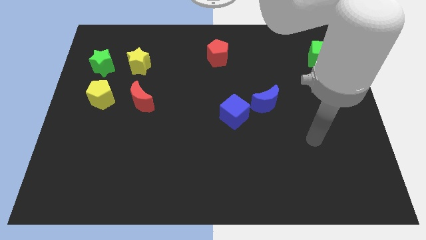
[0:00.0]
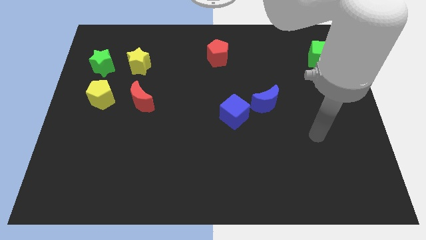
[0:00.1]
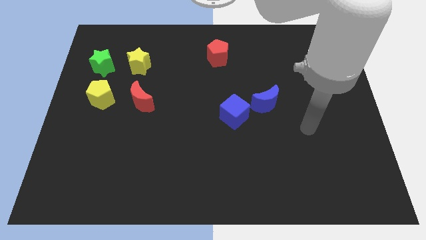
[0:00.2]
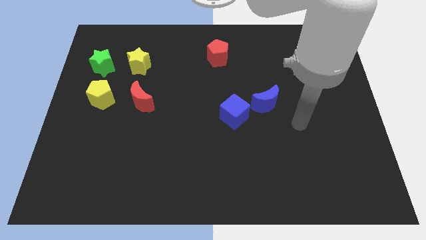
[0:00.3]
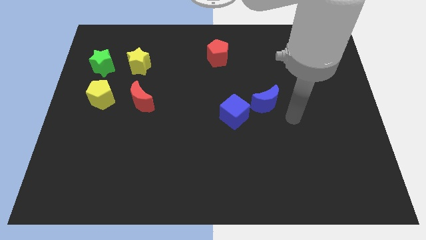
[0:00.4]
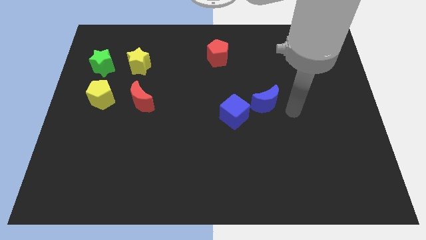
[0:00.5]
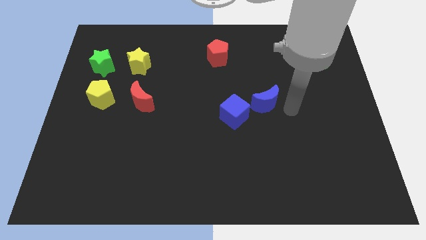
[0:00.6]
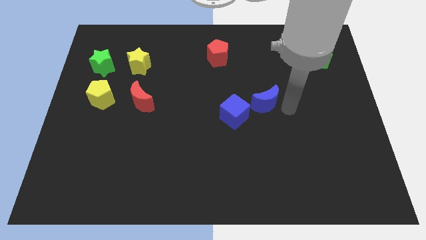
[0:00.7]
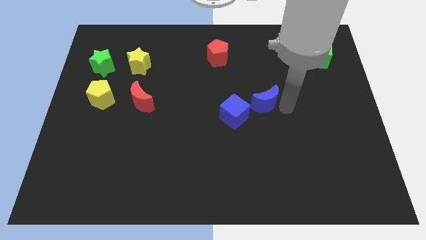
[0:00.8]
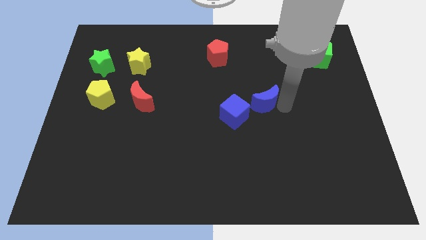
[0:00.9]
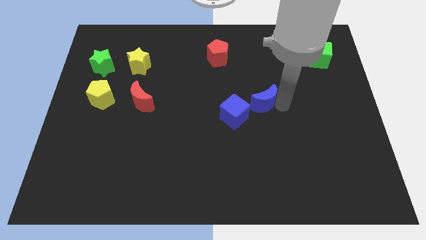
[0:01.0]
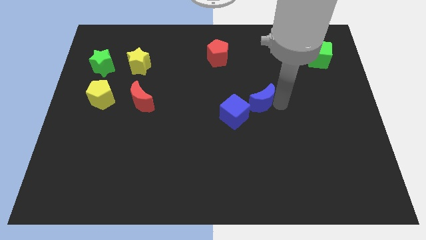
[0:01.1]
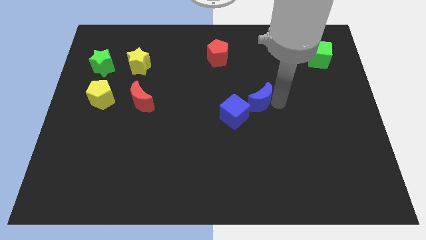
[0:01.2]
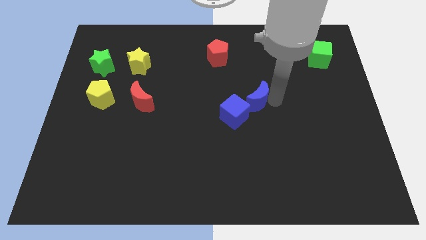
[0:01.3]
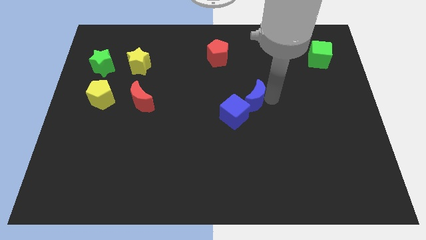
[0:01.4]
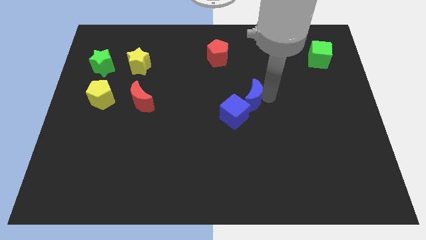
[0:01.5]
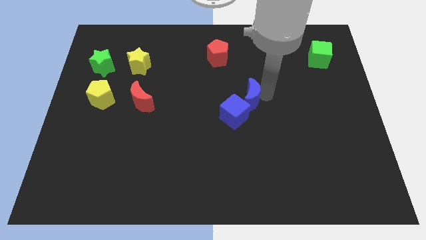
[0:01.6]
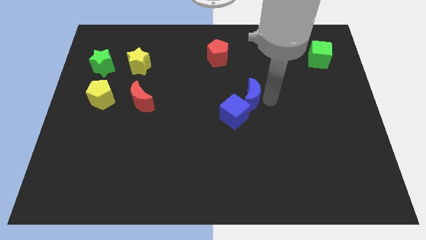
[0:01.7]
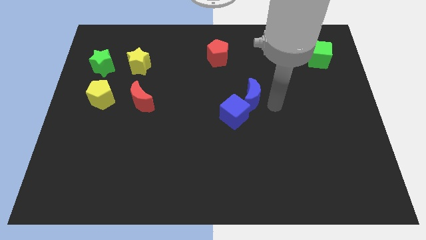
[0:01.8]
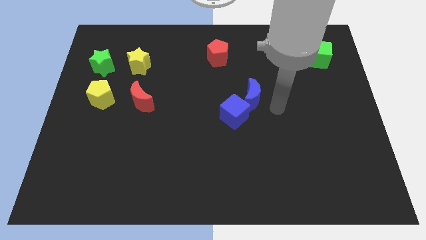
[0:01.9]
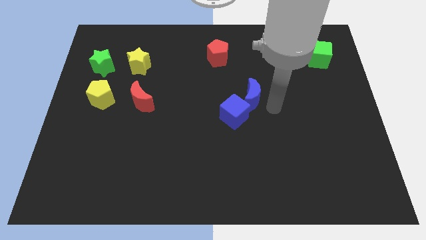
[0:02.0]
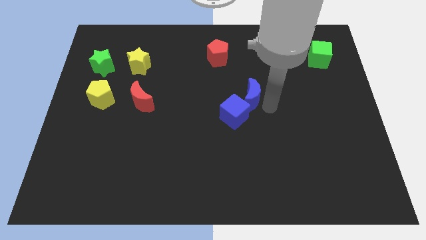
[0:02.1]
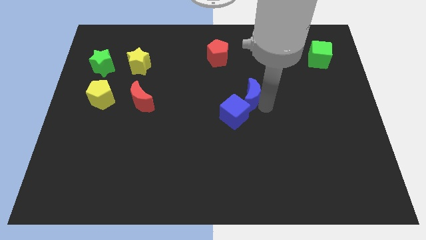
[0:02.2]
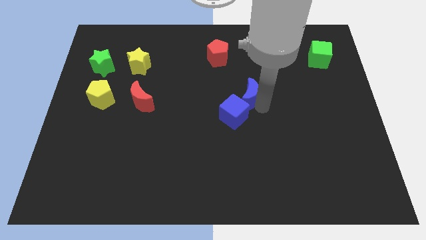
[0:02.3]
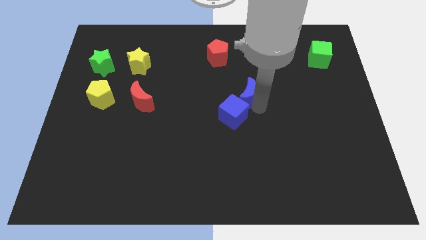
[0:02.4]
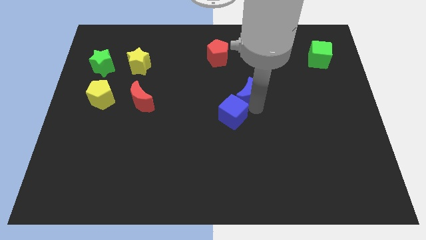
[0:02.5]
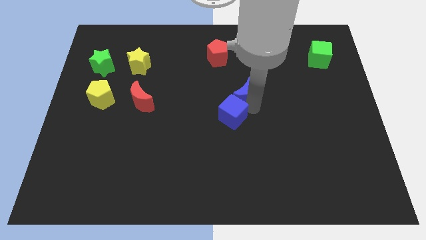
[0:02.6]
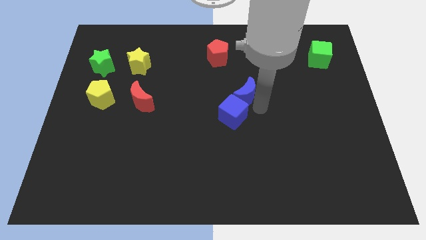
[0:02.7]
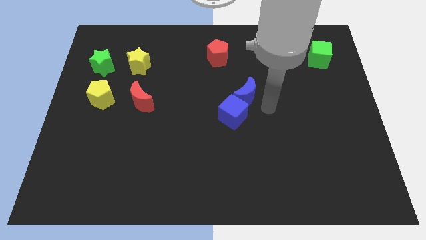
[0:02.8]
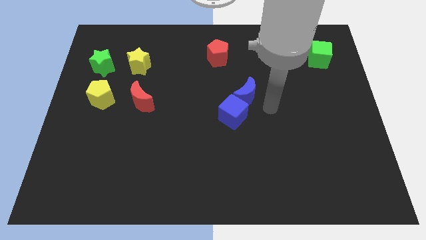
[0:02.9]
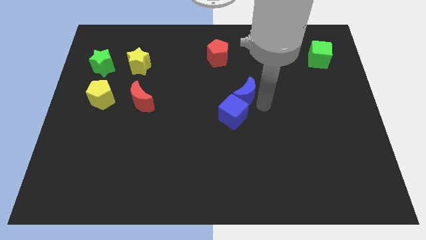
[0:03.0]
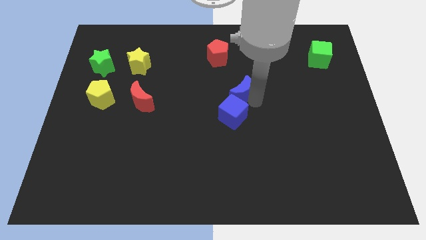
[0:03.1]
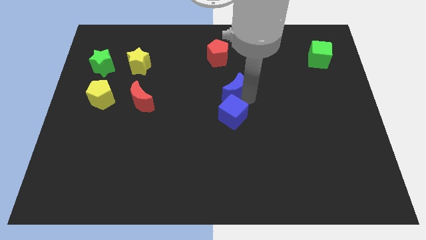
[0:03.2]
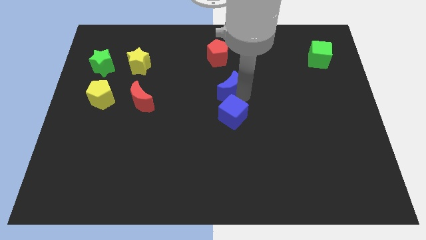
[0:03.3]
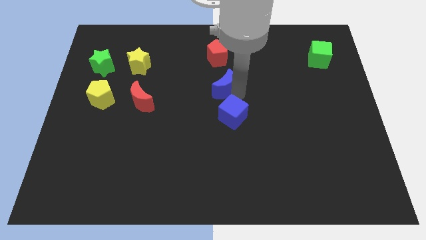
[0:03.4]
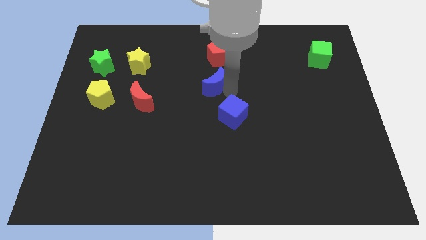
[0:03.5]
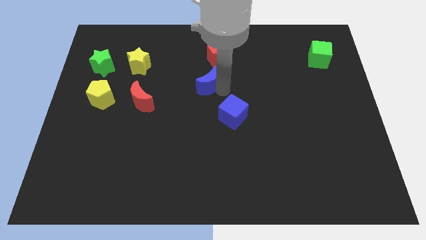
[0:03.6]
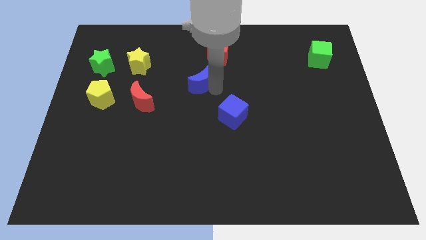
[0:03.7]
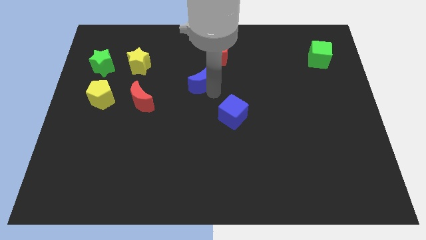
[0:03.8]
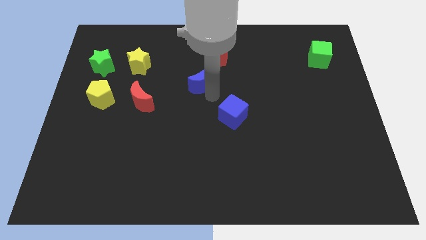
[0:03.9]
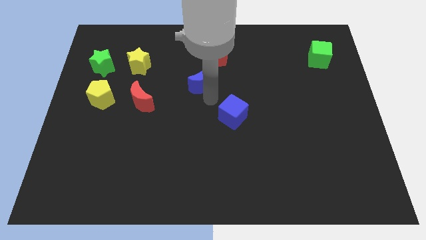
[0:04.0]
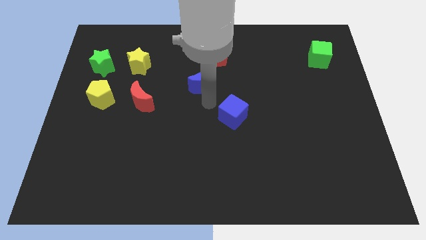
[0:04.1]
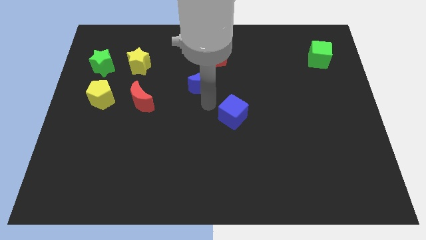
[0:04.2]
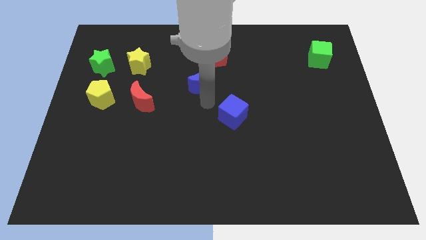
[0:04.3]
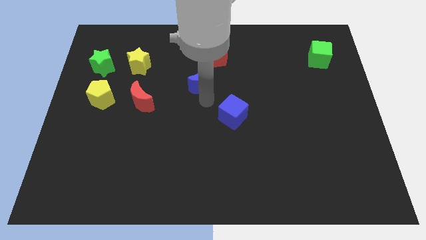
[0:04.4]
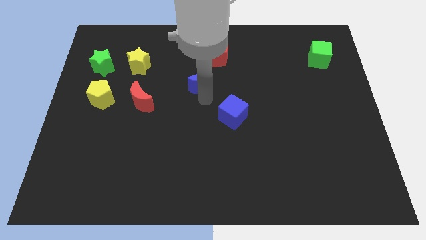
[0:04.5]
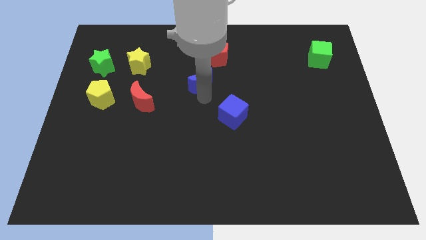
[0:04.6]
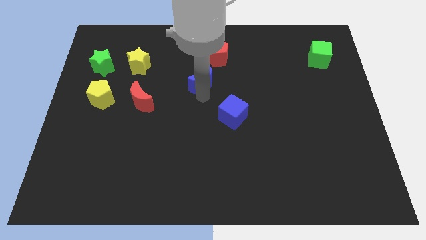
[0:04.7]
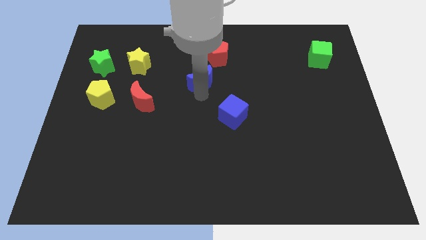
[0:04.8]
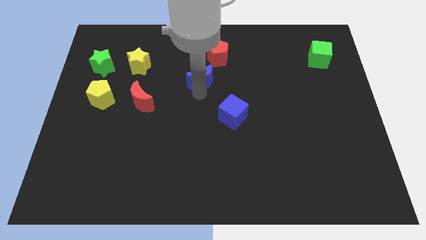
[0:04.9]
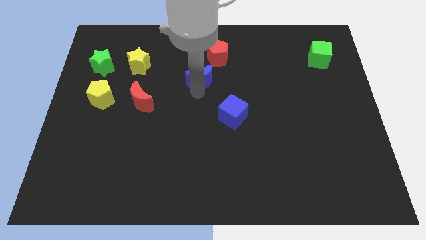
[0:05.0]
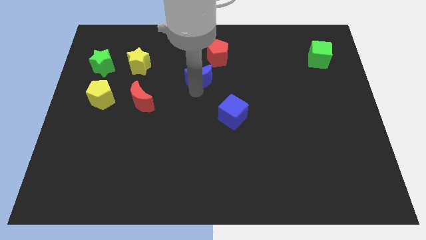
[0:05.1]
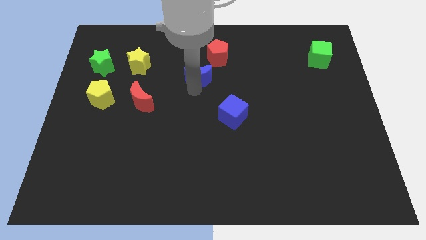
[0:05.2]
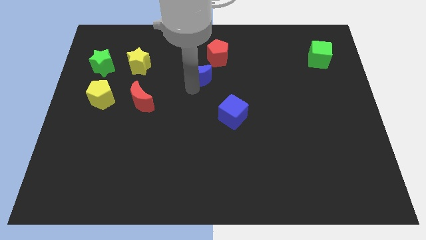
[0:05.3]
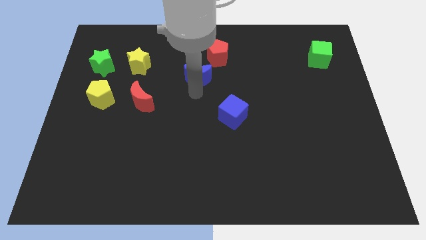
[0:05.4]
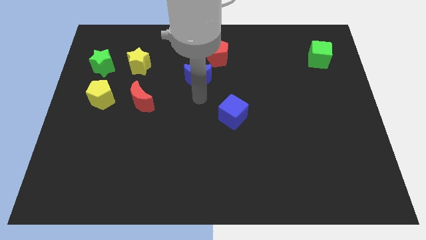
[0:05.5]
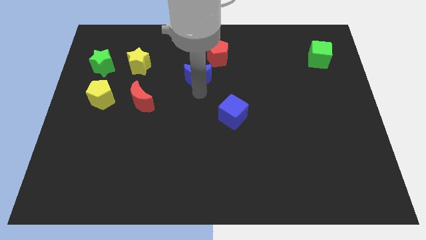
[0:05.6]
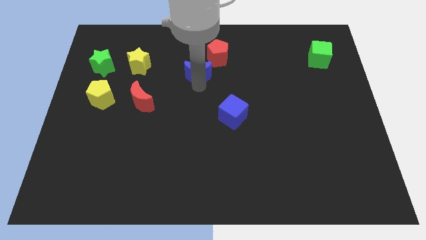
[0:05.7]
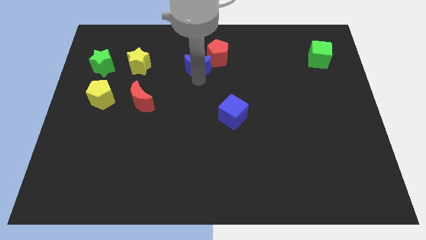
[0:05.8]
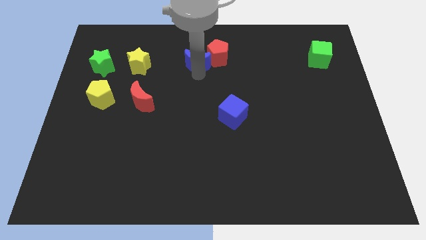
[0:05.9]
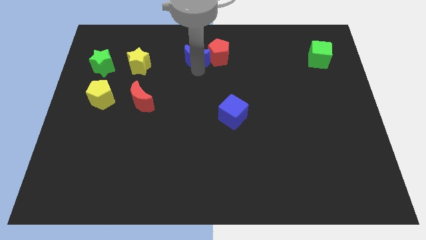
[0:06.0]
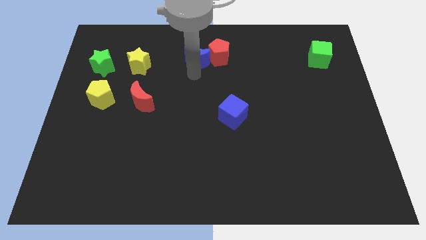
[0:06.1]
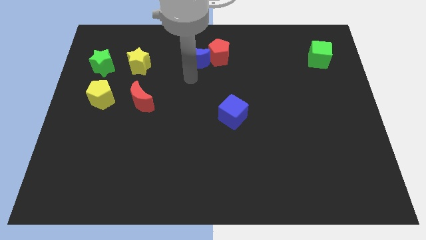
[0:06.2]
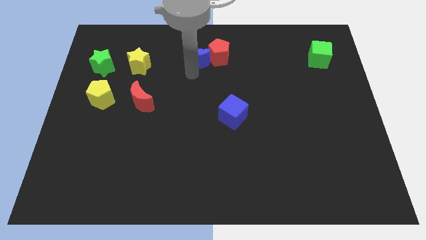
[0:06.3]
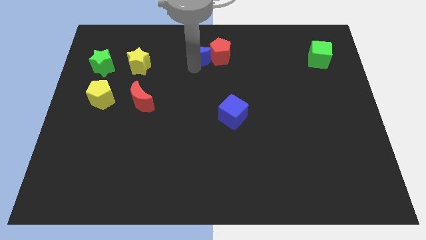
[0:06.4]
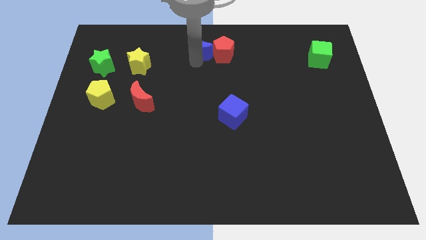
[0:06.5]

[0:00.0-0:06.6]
move the blue moon to the top

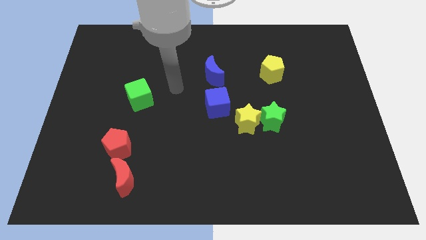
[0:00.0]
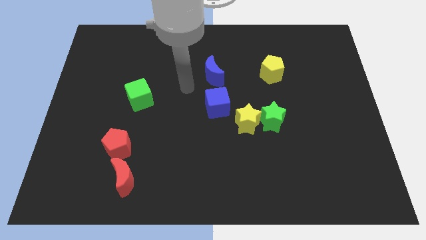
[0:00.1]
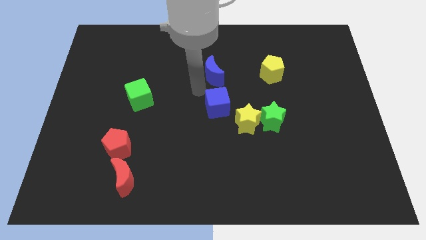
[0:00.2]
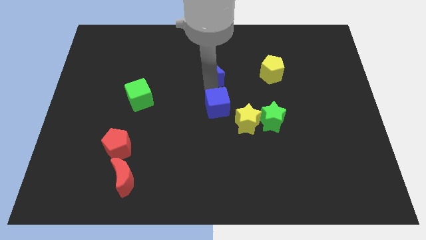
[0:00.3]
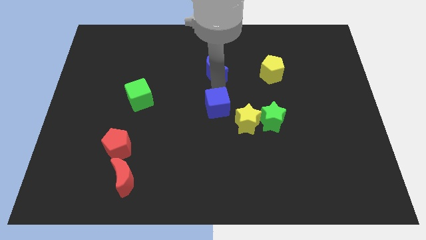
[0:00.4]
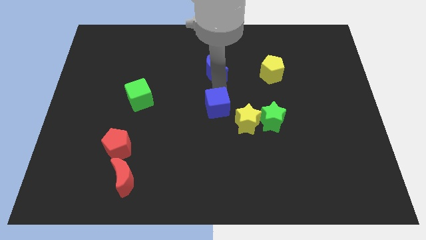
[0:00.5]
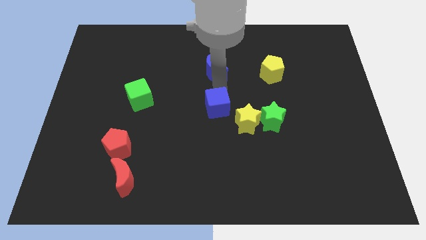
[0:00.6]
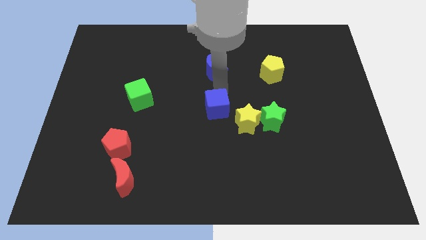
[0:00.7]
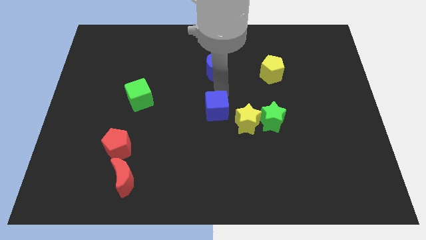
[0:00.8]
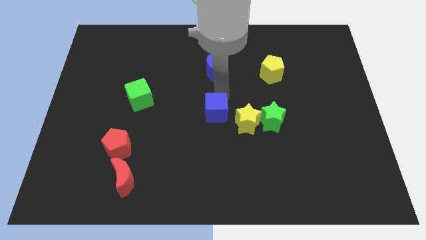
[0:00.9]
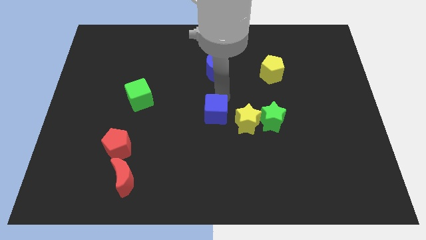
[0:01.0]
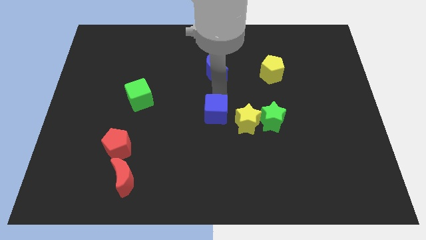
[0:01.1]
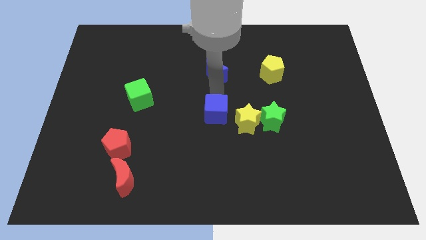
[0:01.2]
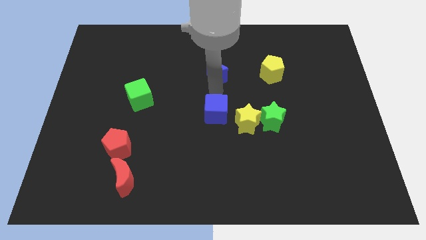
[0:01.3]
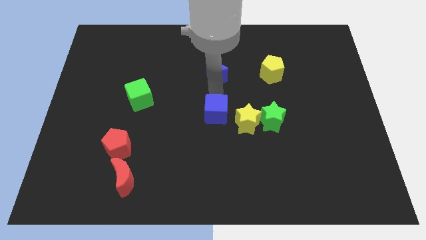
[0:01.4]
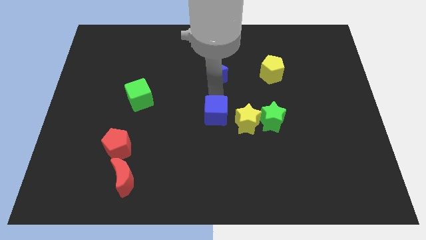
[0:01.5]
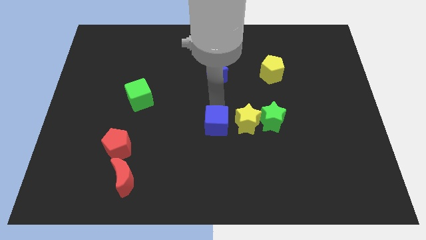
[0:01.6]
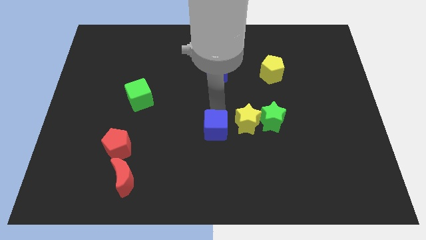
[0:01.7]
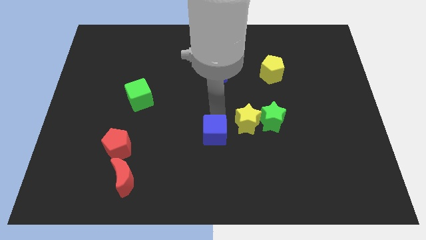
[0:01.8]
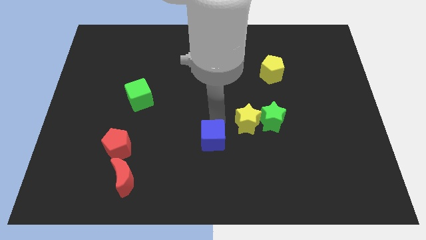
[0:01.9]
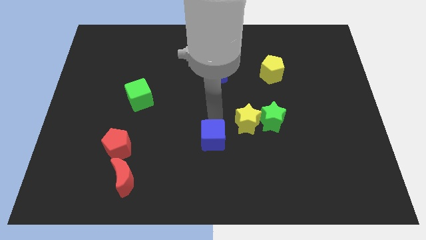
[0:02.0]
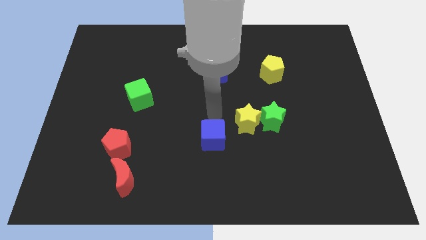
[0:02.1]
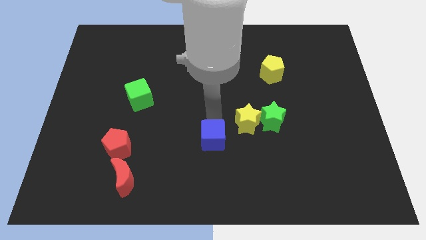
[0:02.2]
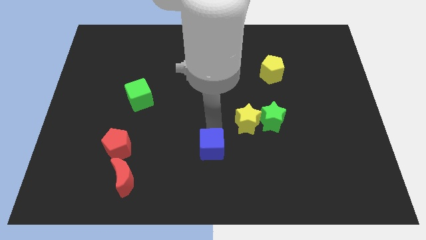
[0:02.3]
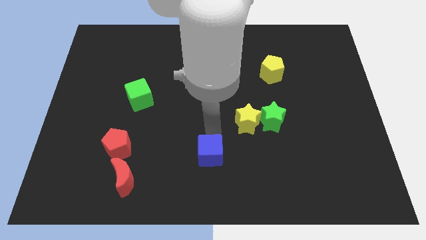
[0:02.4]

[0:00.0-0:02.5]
push the blue cube to the bottom side
